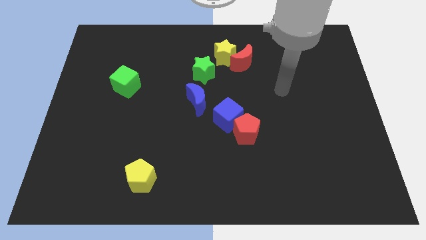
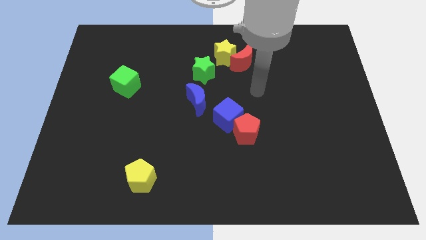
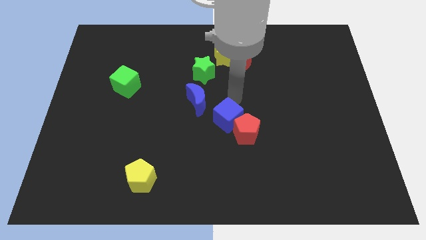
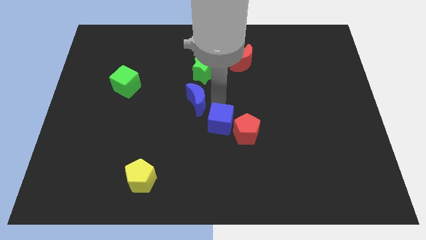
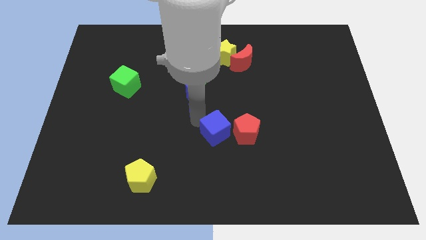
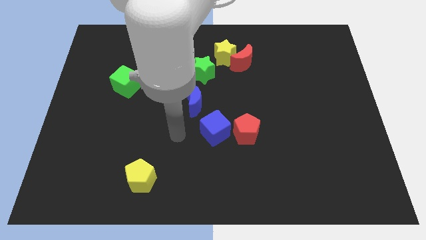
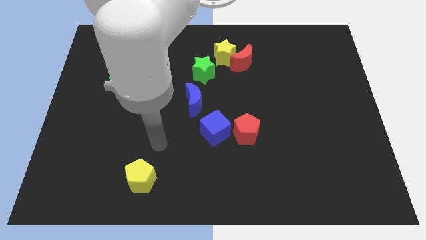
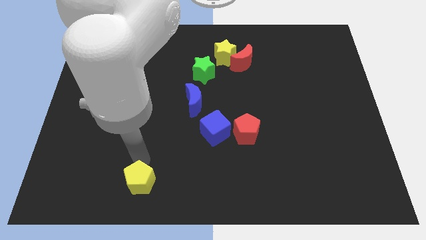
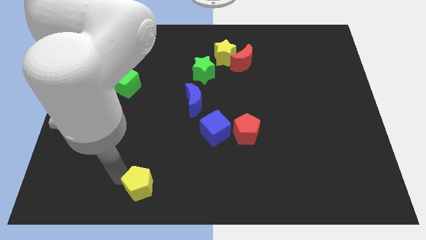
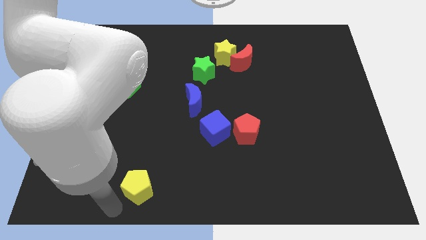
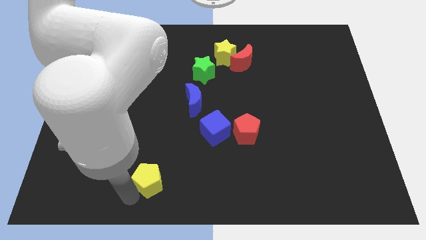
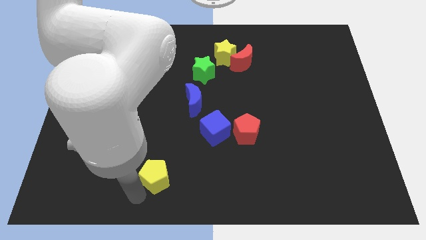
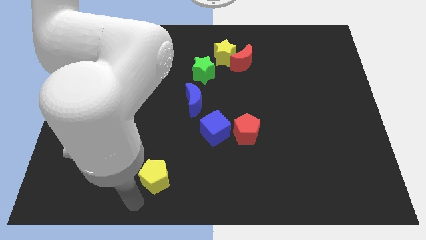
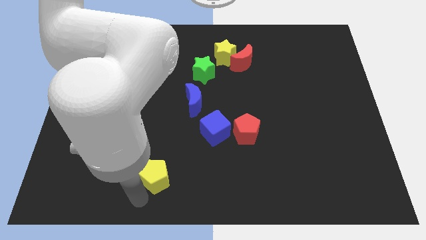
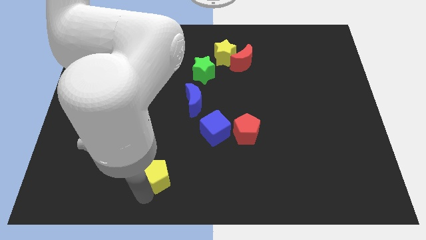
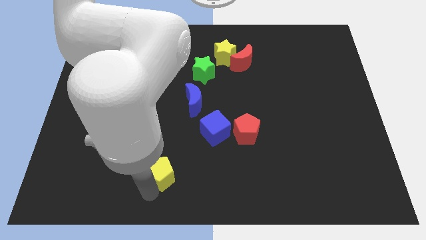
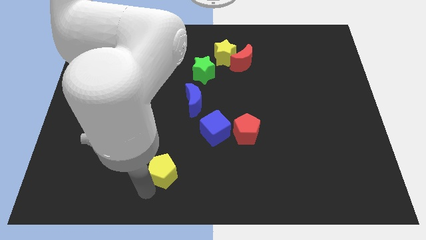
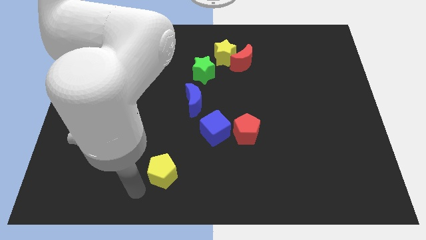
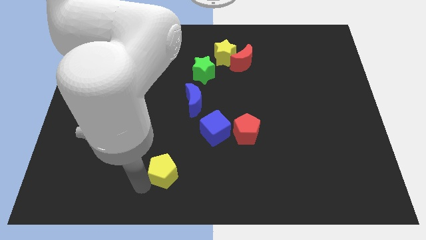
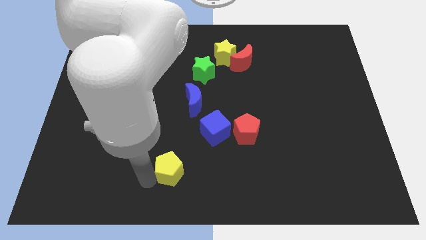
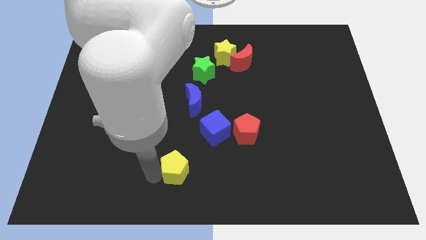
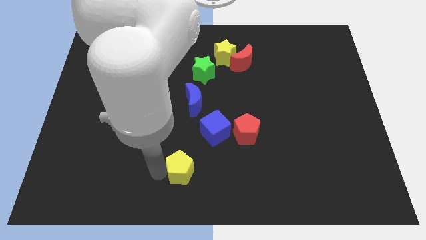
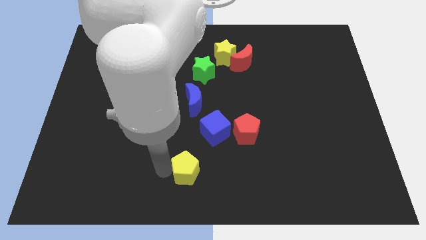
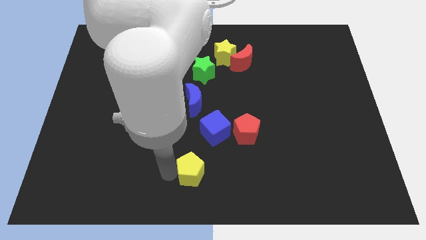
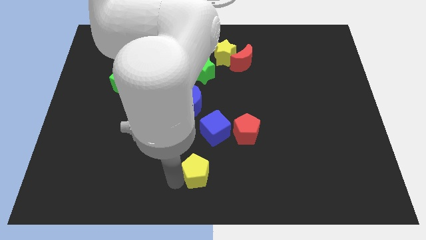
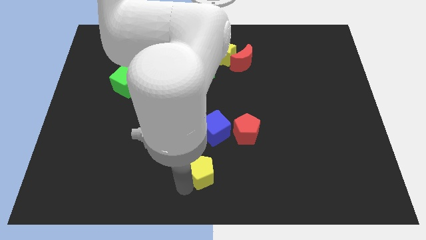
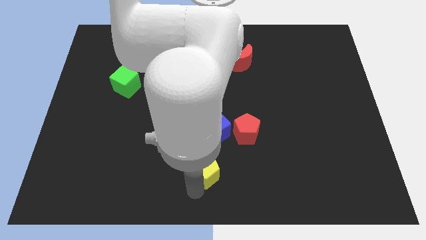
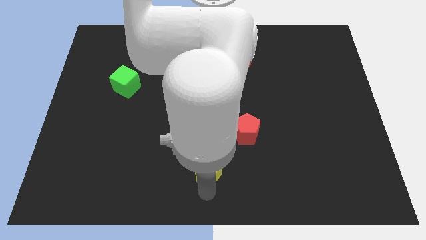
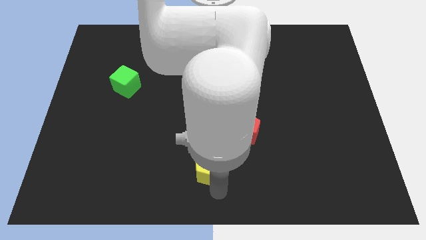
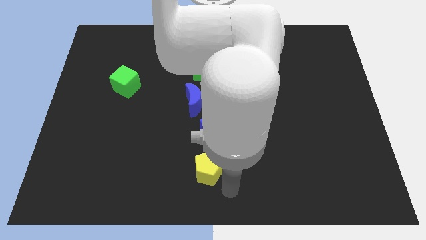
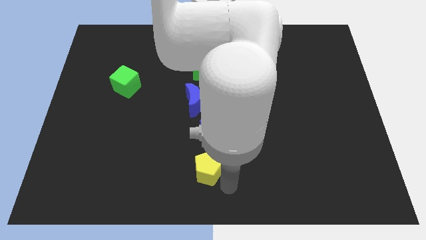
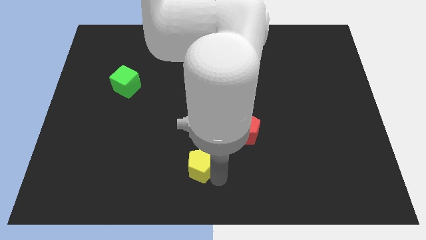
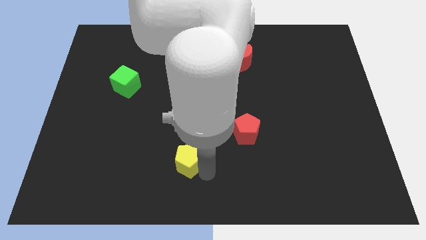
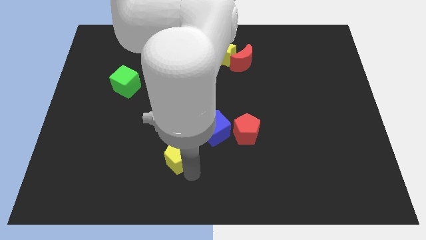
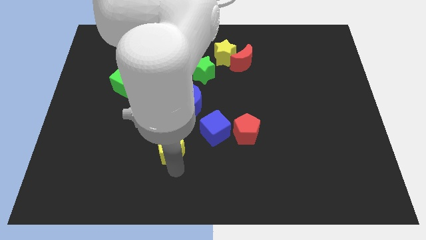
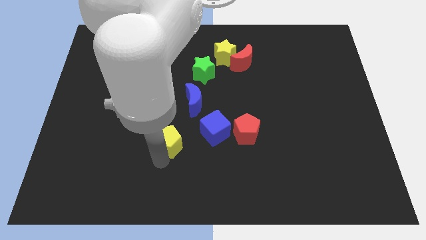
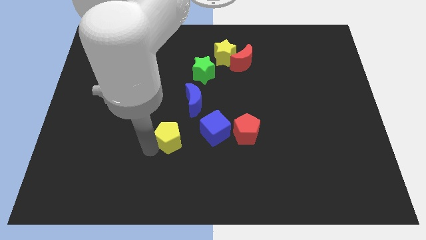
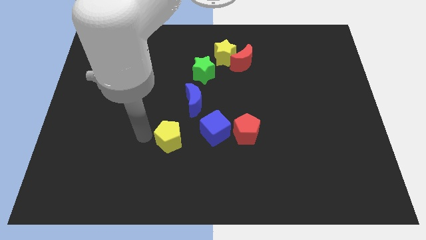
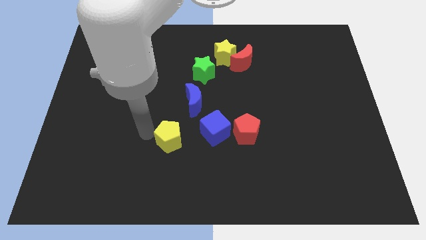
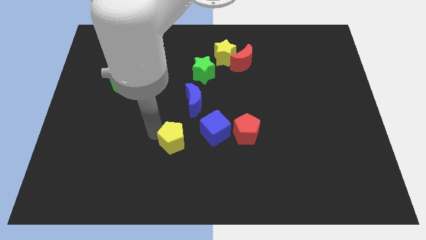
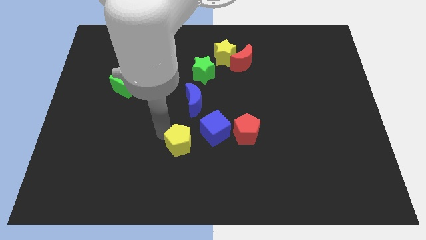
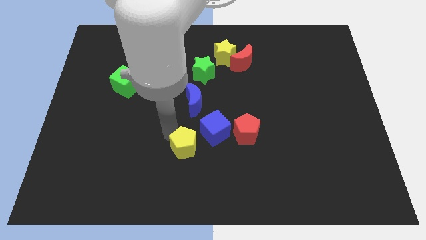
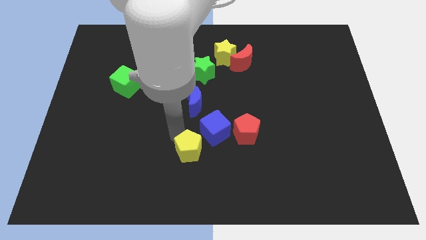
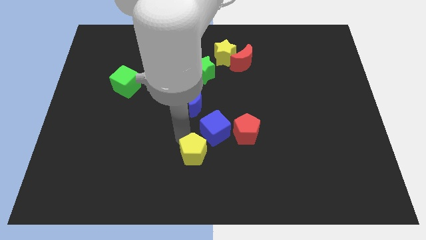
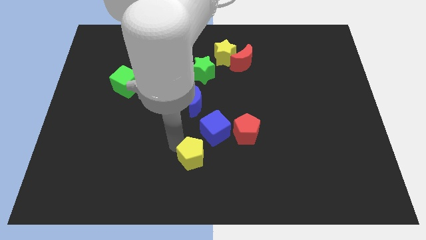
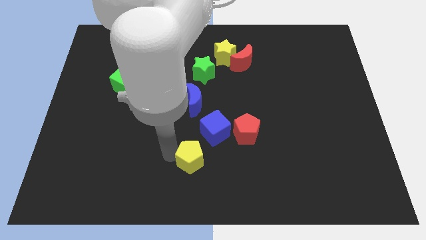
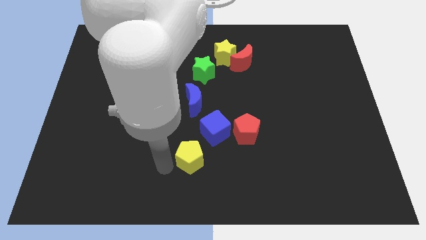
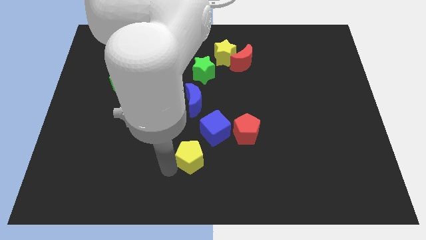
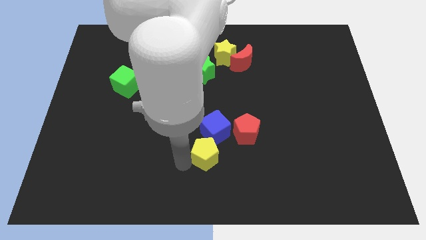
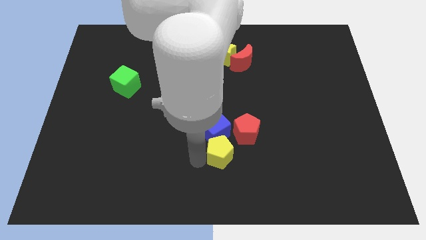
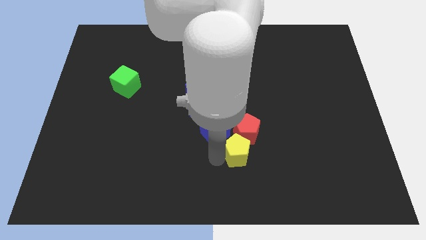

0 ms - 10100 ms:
slide the yellow pentagon to the red pentagon

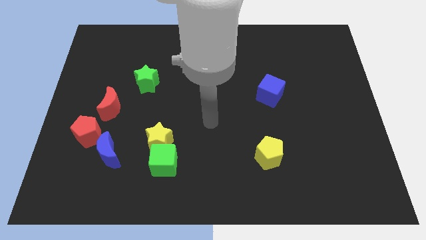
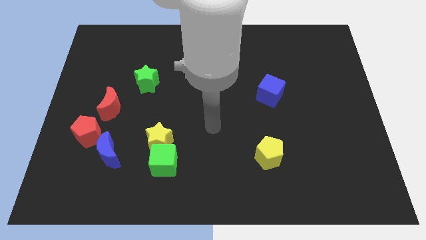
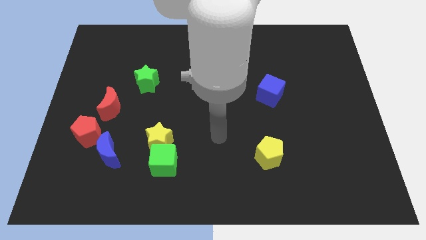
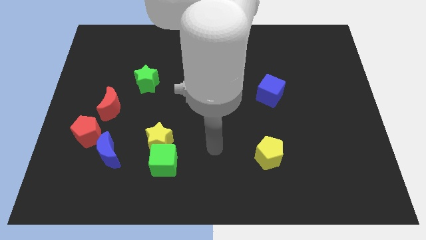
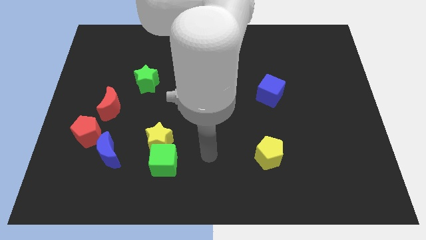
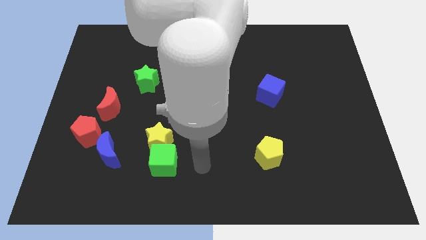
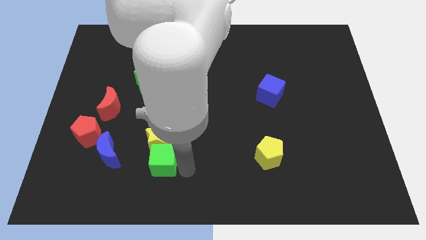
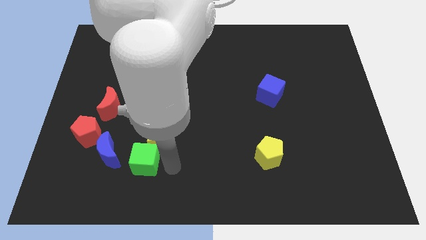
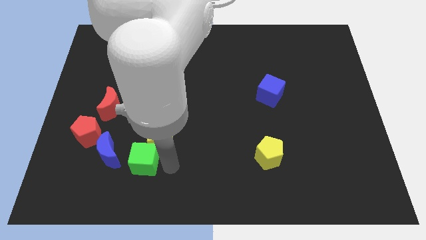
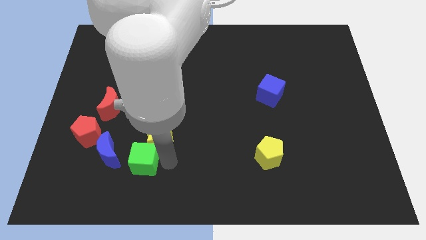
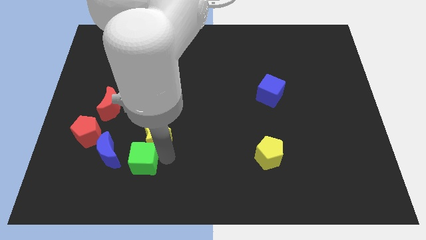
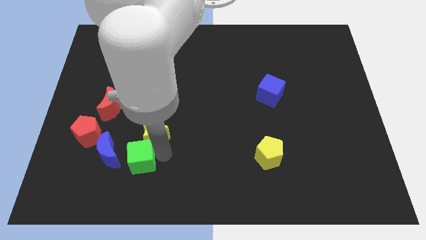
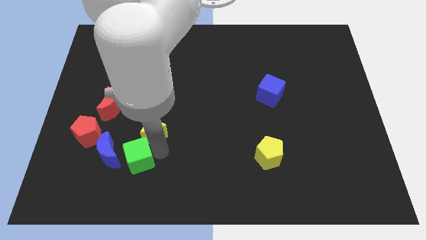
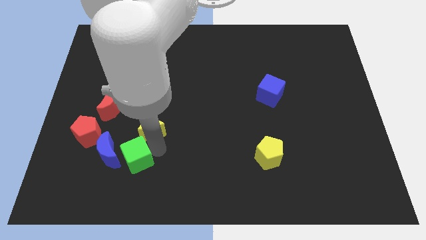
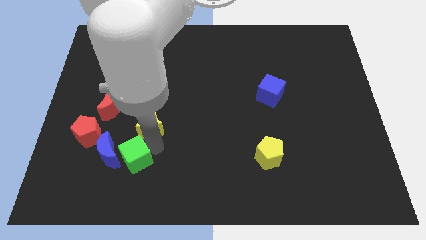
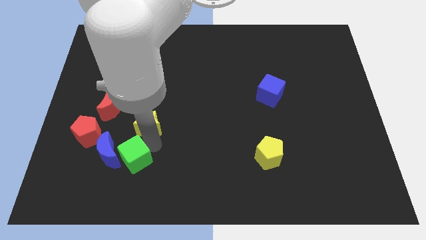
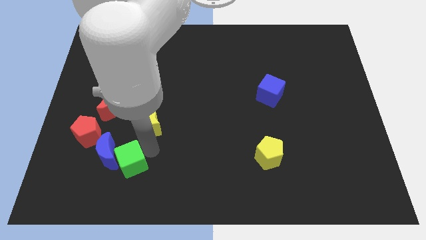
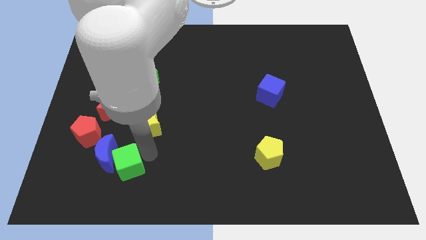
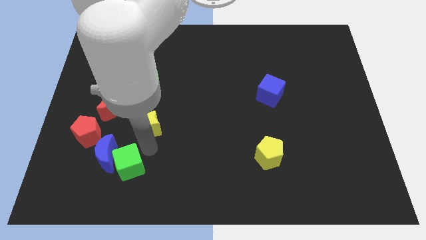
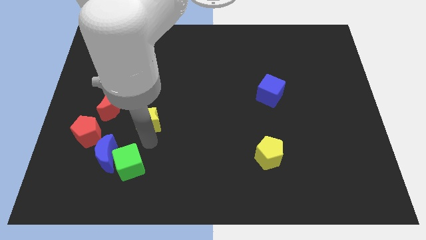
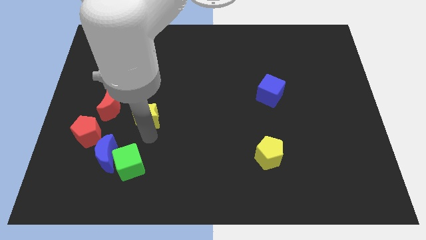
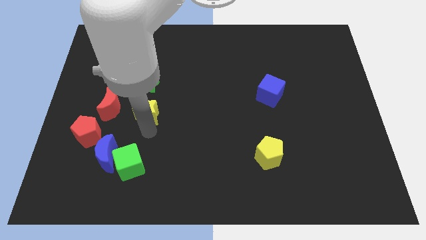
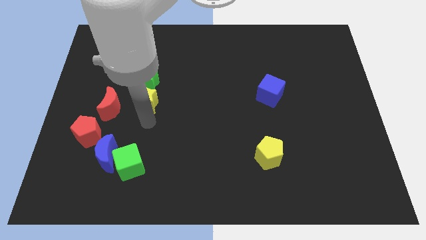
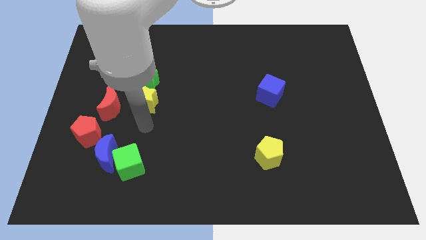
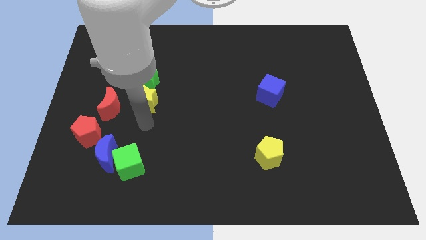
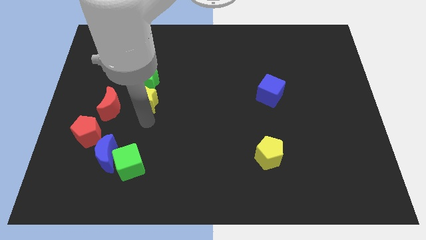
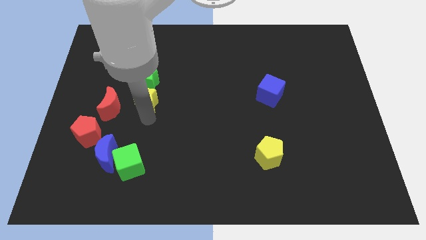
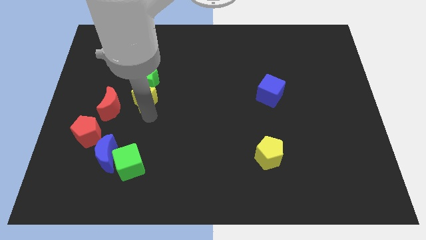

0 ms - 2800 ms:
put the yellow star towards the green star

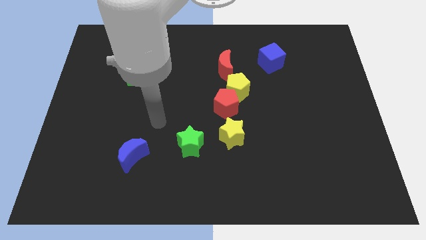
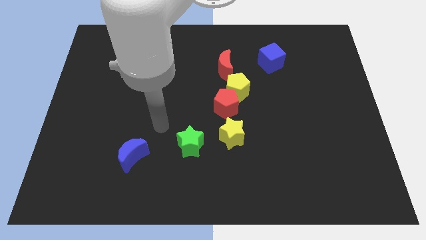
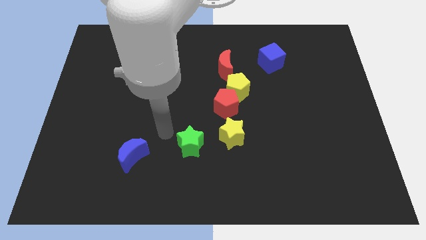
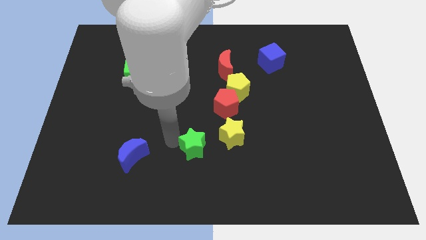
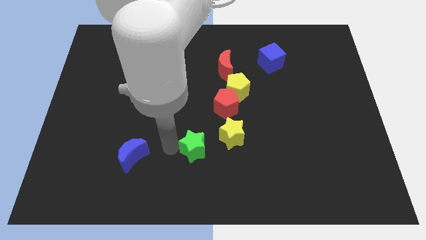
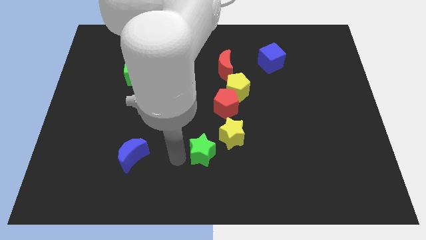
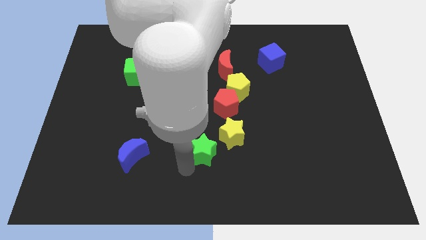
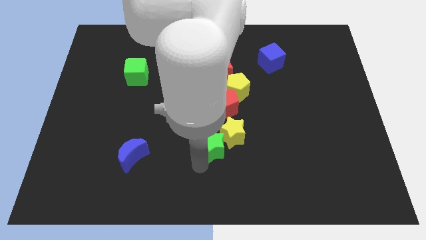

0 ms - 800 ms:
slide the yellow star towards the green star
